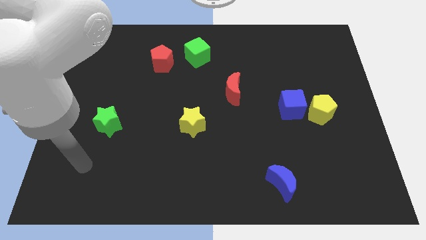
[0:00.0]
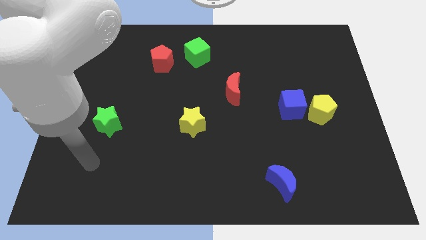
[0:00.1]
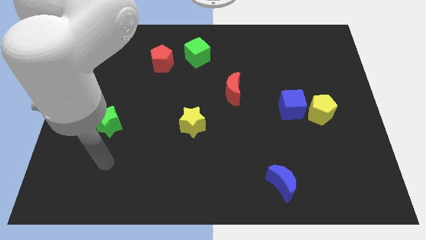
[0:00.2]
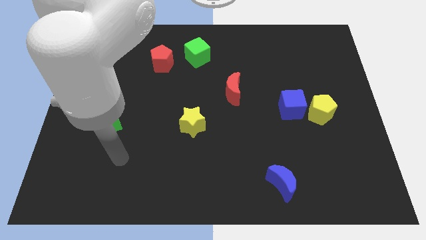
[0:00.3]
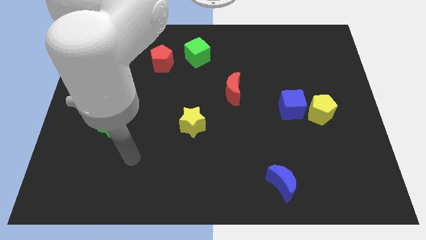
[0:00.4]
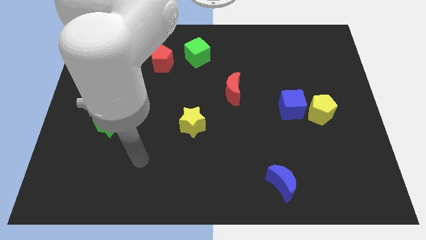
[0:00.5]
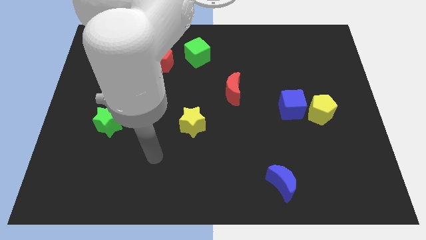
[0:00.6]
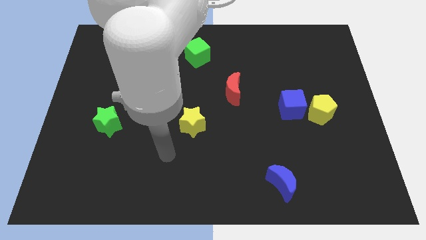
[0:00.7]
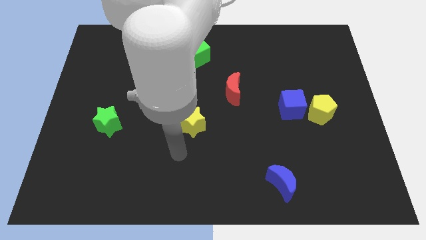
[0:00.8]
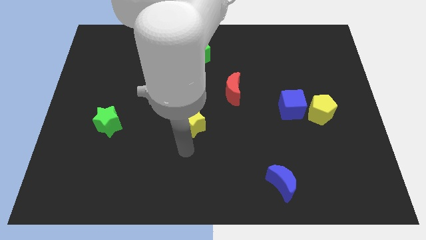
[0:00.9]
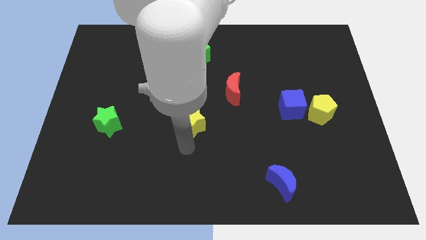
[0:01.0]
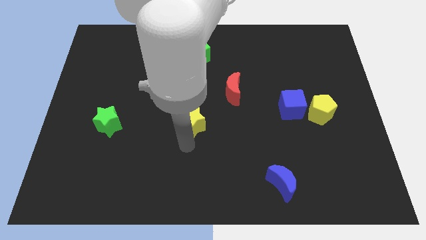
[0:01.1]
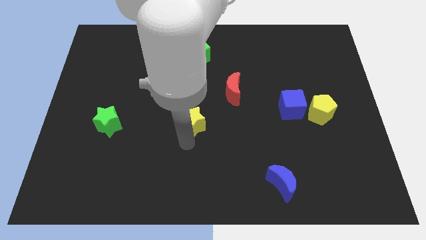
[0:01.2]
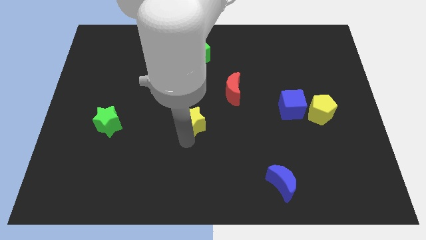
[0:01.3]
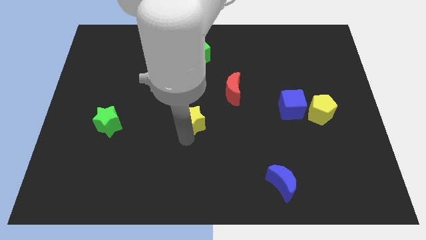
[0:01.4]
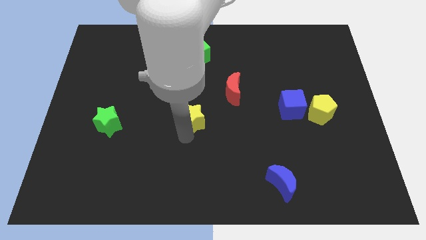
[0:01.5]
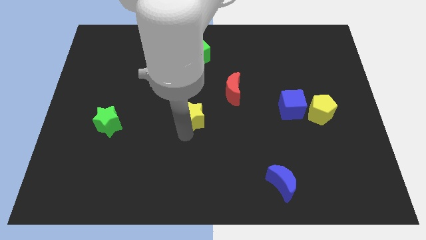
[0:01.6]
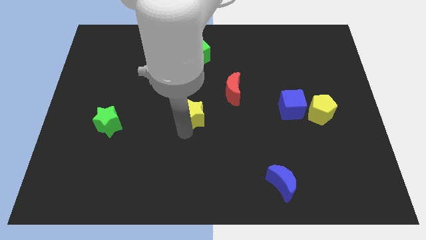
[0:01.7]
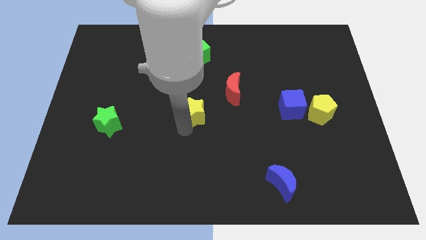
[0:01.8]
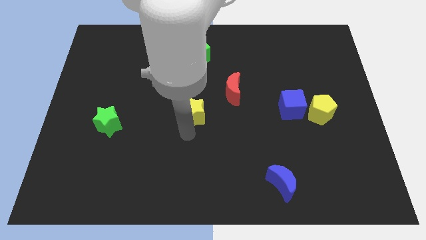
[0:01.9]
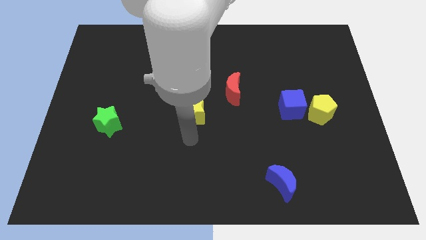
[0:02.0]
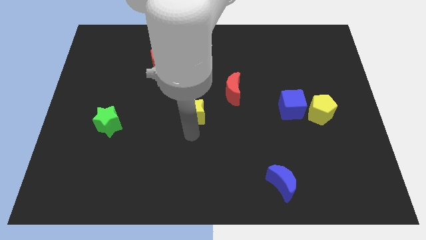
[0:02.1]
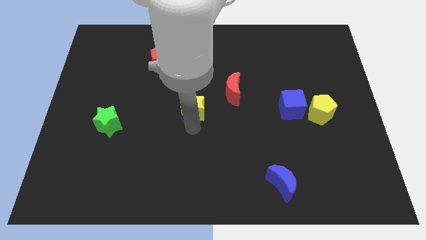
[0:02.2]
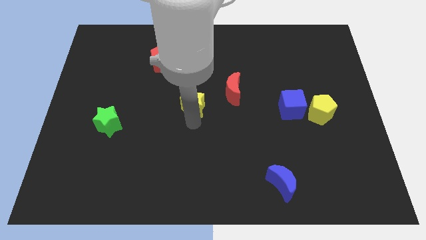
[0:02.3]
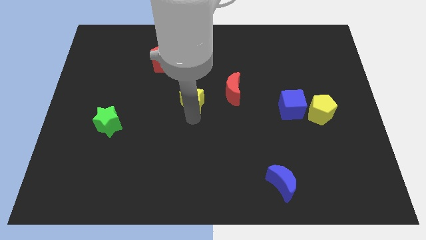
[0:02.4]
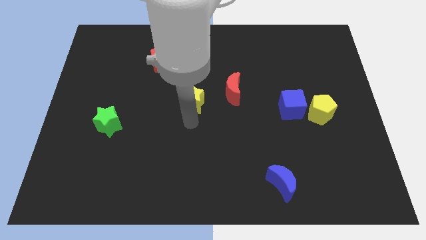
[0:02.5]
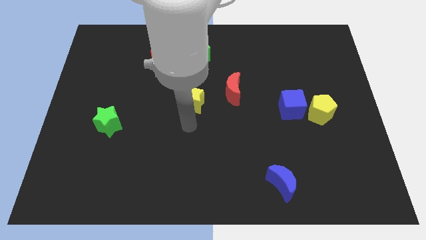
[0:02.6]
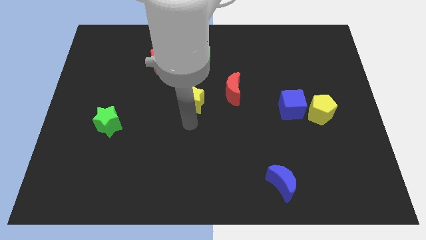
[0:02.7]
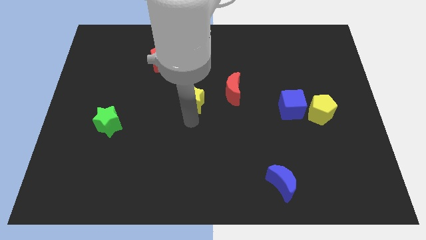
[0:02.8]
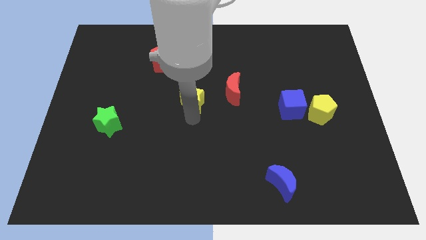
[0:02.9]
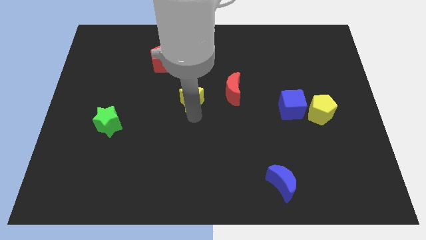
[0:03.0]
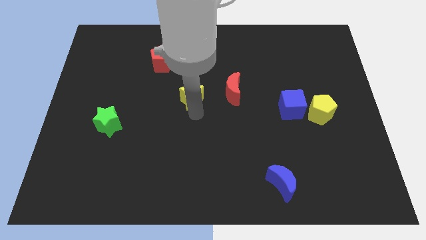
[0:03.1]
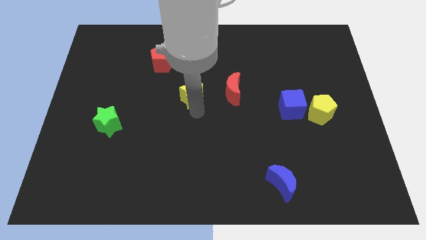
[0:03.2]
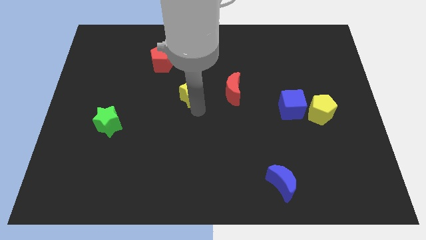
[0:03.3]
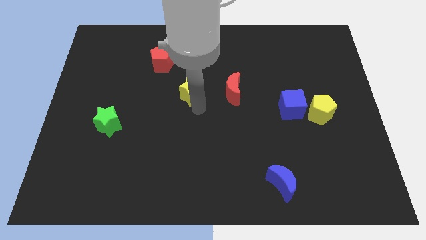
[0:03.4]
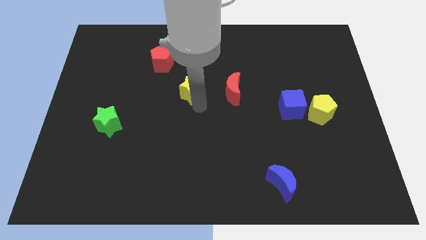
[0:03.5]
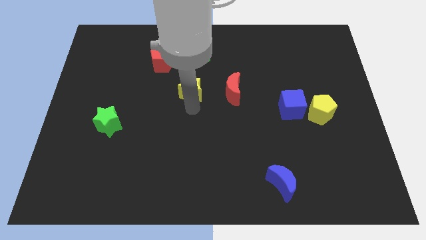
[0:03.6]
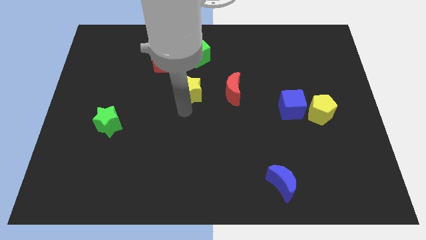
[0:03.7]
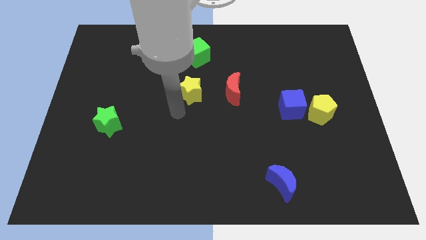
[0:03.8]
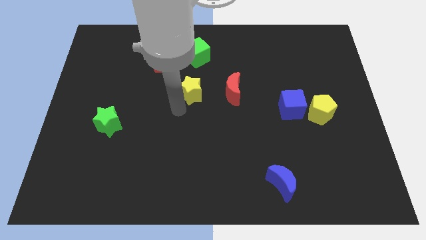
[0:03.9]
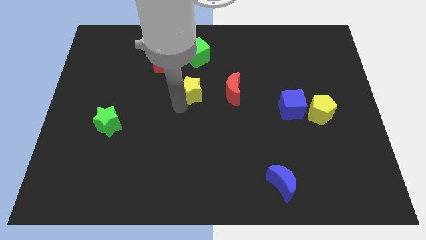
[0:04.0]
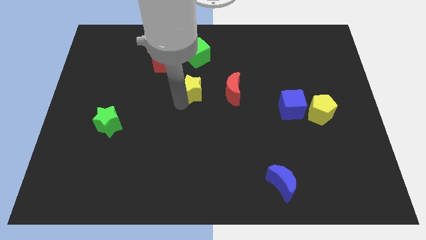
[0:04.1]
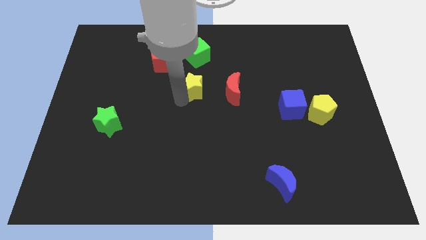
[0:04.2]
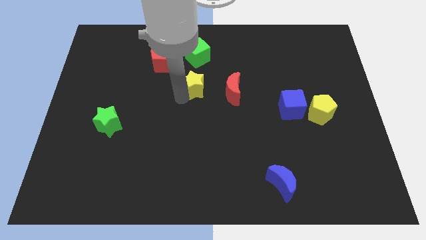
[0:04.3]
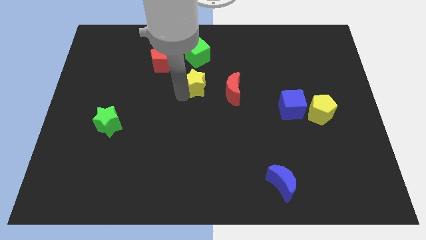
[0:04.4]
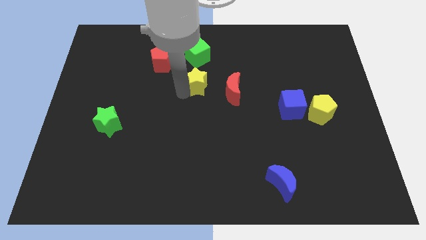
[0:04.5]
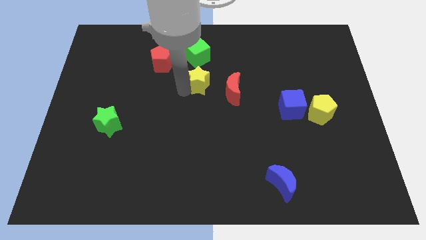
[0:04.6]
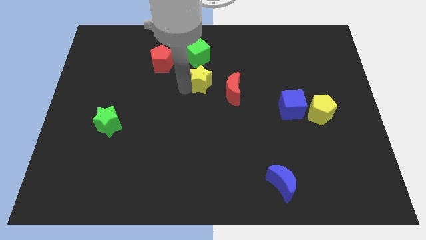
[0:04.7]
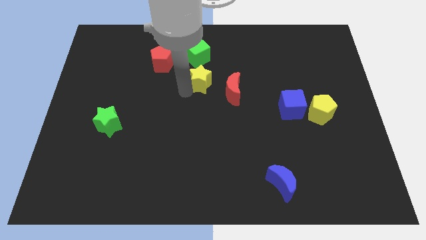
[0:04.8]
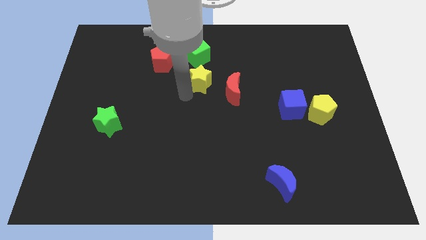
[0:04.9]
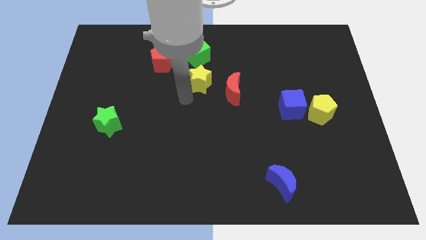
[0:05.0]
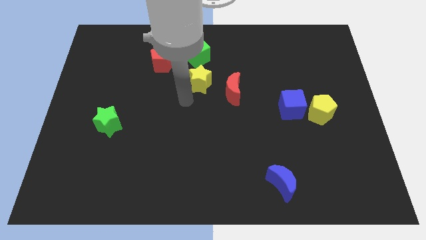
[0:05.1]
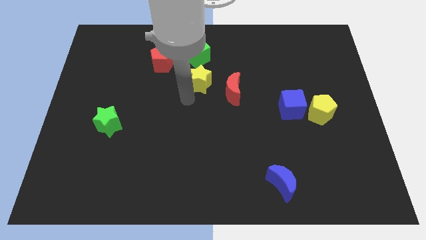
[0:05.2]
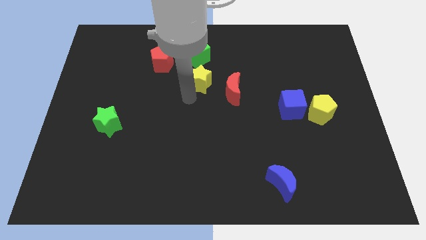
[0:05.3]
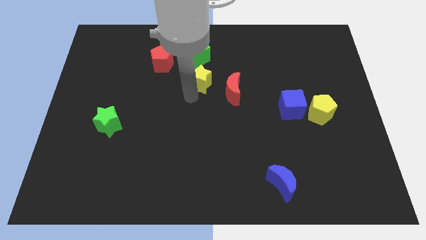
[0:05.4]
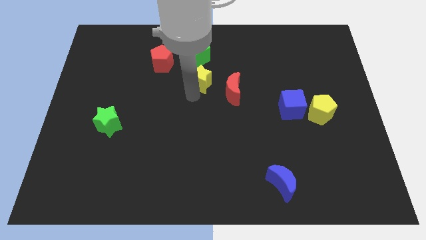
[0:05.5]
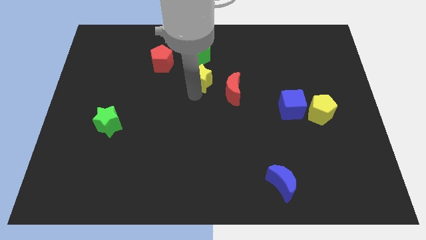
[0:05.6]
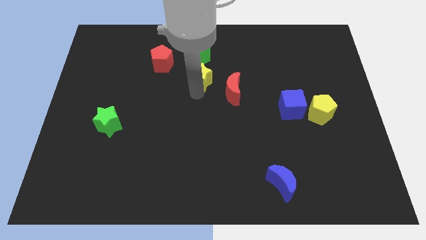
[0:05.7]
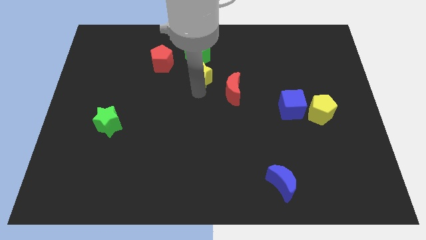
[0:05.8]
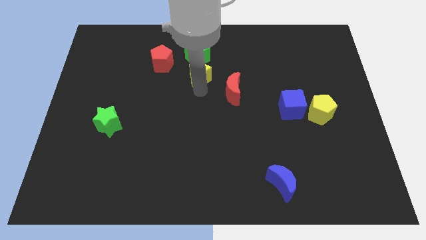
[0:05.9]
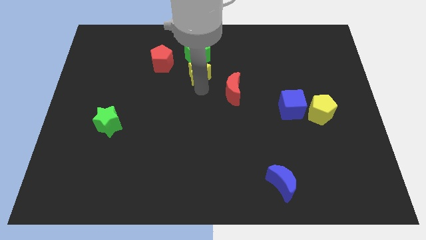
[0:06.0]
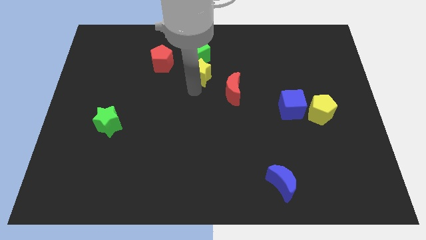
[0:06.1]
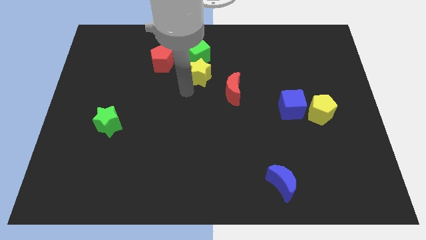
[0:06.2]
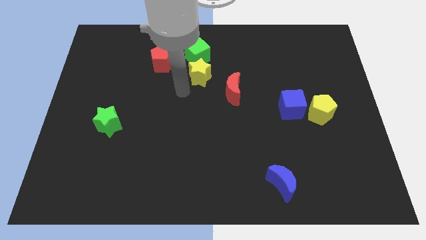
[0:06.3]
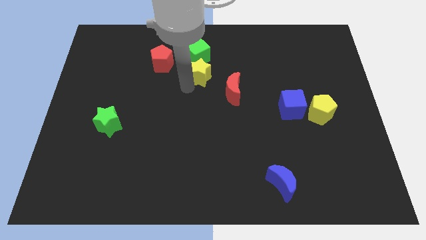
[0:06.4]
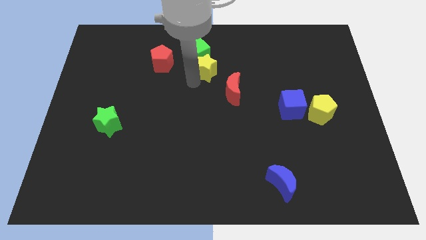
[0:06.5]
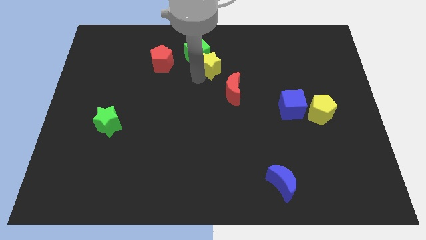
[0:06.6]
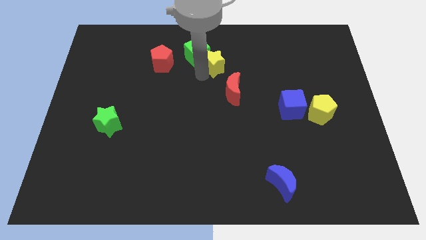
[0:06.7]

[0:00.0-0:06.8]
put the yellow star just right of the green cube

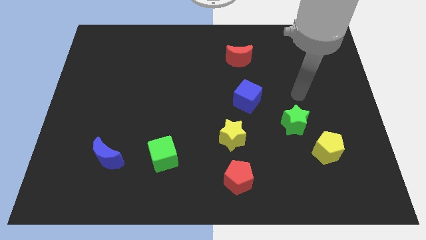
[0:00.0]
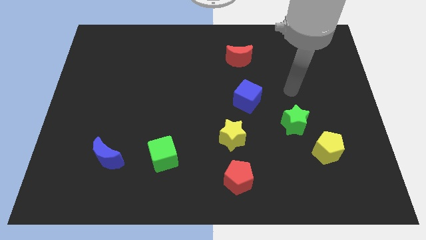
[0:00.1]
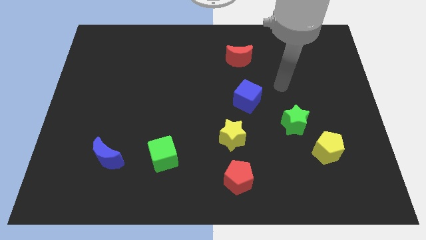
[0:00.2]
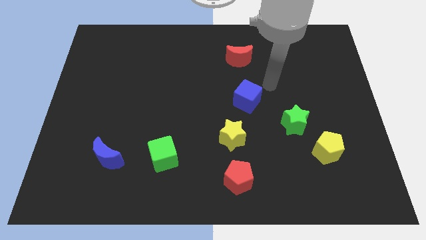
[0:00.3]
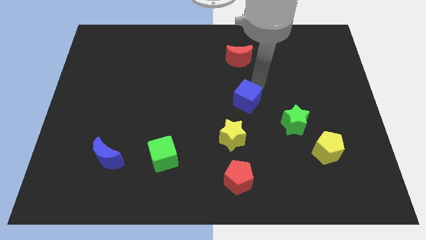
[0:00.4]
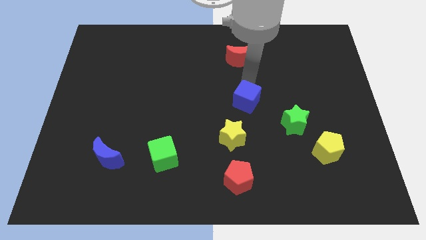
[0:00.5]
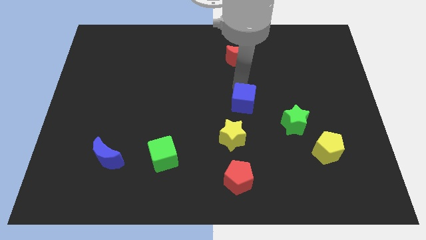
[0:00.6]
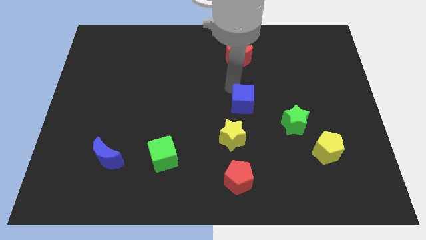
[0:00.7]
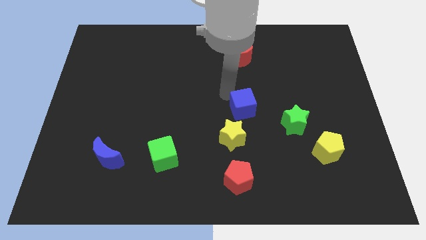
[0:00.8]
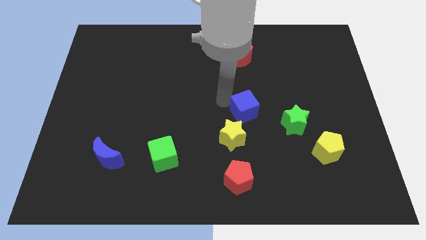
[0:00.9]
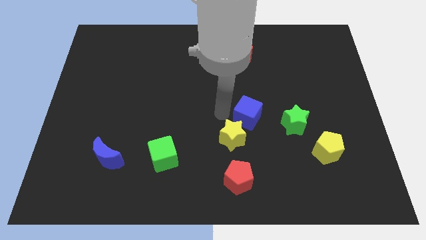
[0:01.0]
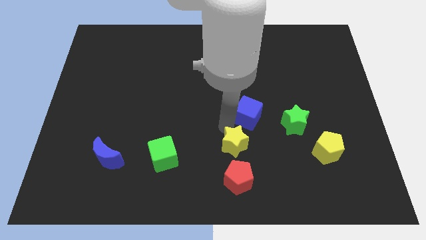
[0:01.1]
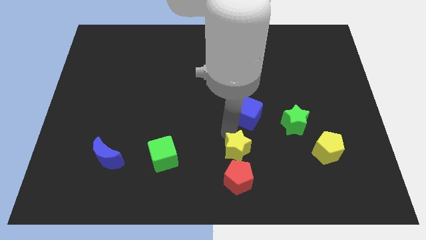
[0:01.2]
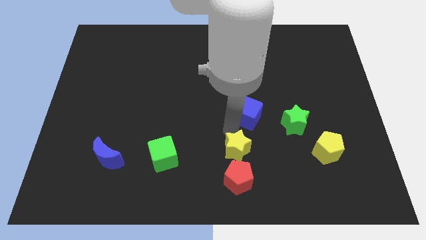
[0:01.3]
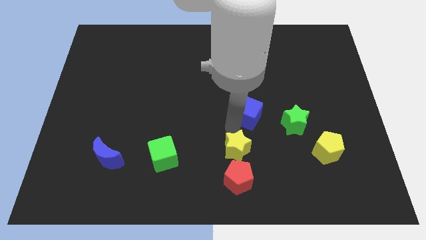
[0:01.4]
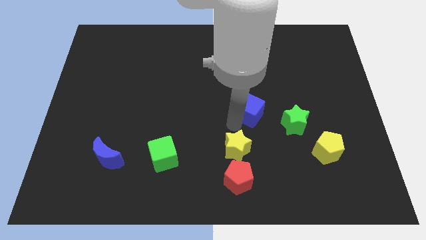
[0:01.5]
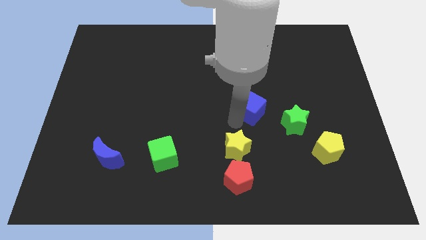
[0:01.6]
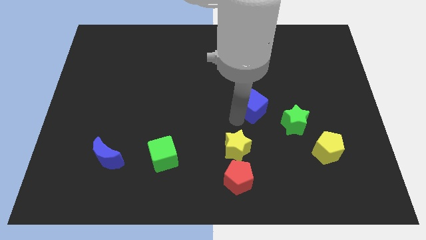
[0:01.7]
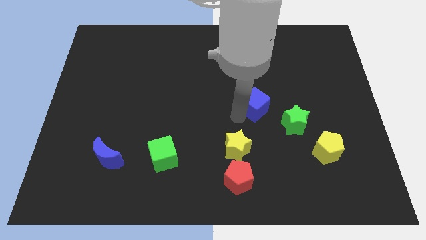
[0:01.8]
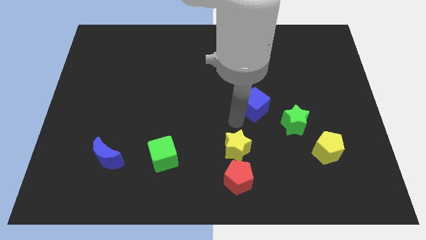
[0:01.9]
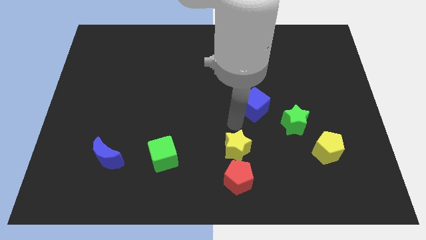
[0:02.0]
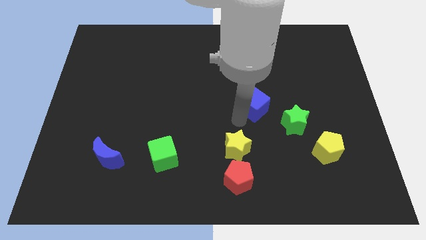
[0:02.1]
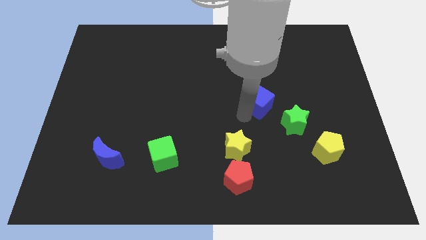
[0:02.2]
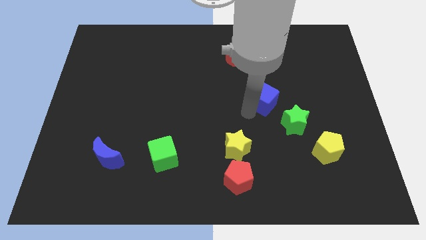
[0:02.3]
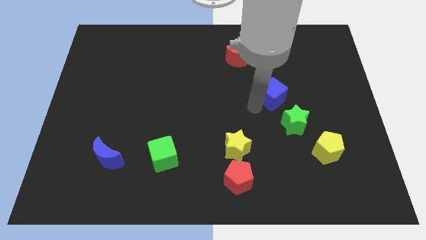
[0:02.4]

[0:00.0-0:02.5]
put the blue cube above the green star
